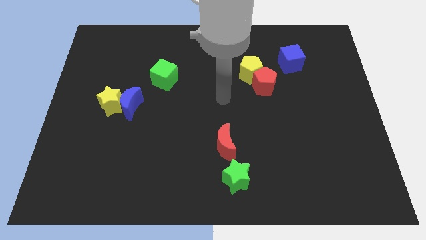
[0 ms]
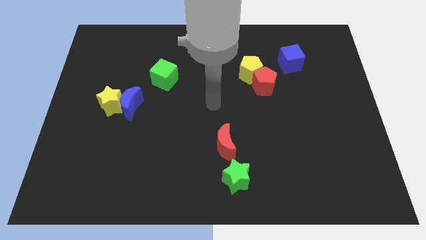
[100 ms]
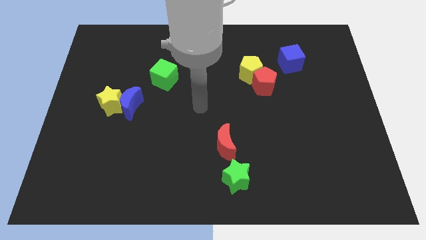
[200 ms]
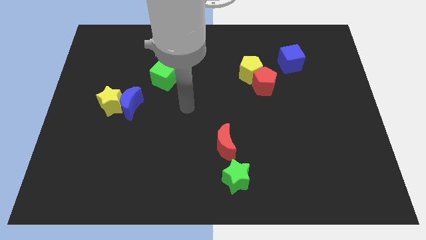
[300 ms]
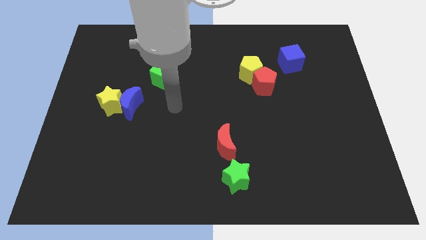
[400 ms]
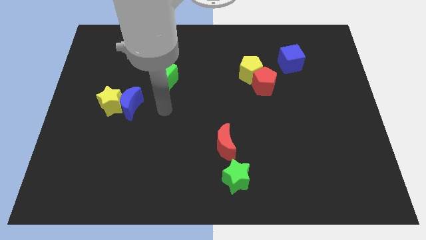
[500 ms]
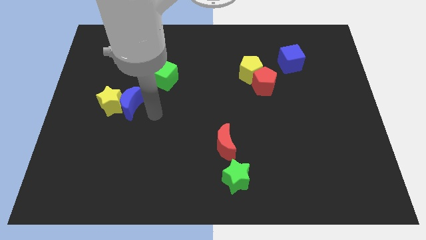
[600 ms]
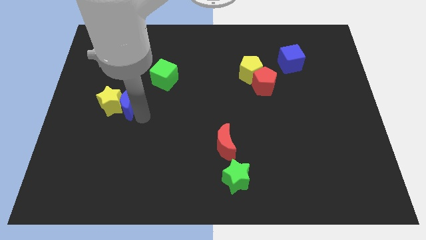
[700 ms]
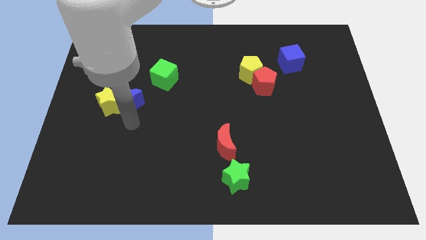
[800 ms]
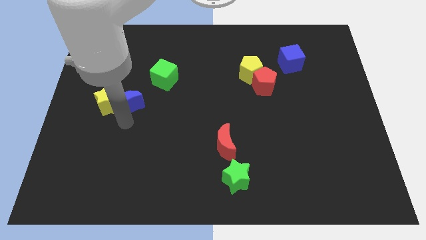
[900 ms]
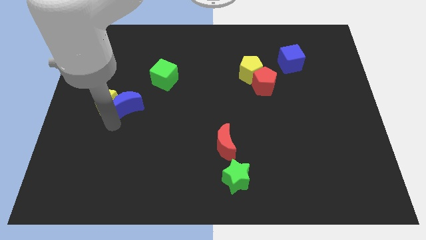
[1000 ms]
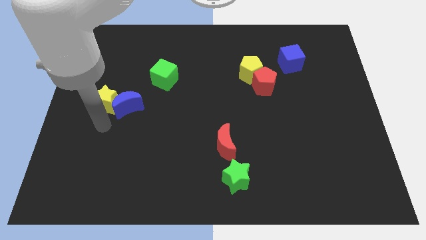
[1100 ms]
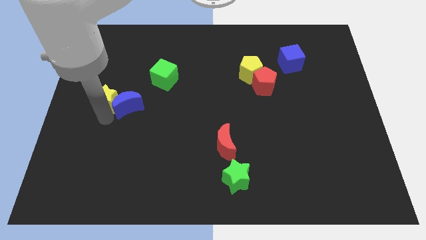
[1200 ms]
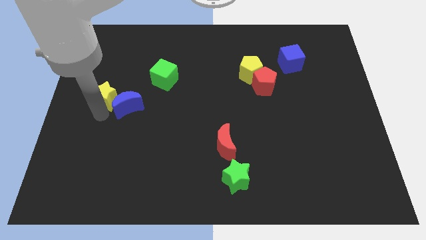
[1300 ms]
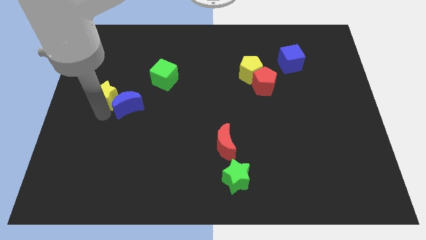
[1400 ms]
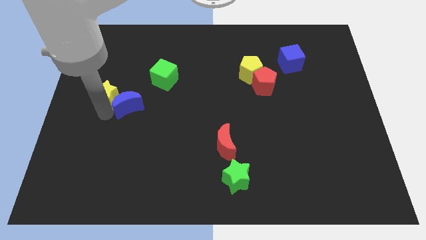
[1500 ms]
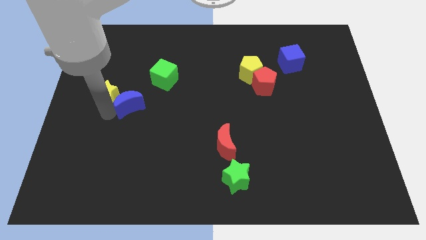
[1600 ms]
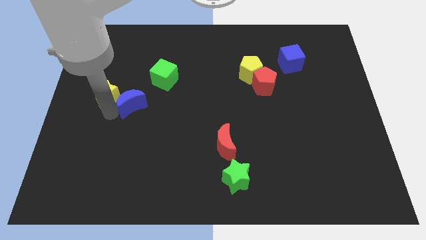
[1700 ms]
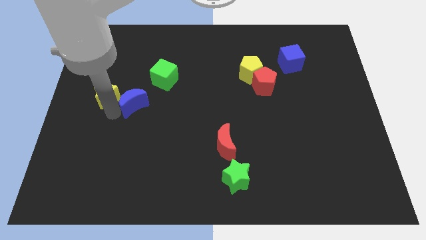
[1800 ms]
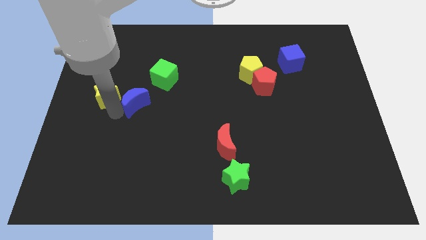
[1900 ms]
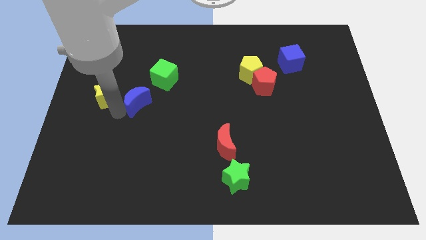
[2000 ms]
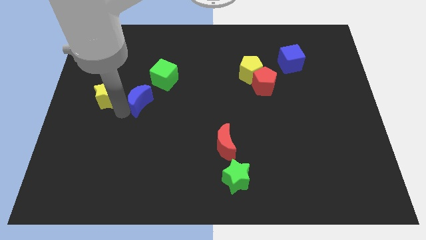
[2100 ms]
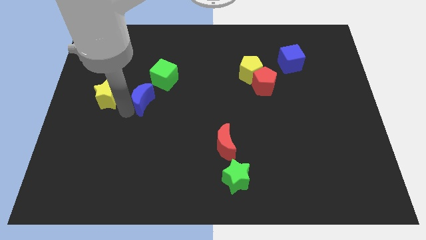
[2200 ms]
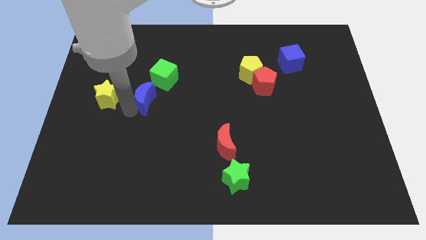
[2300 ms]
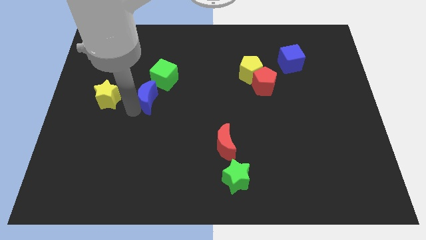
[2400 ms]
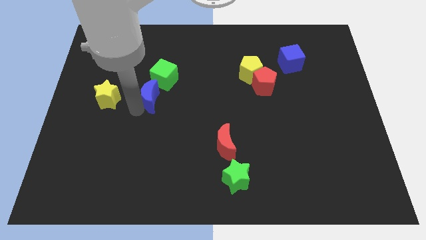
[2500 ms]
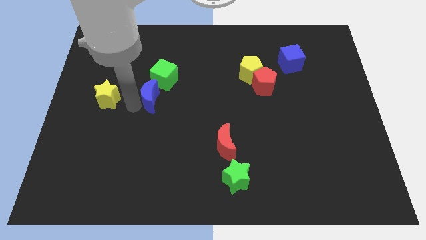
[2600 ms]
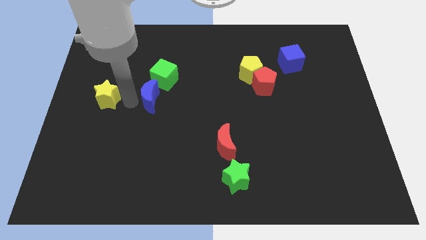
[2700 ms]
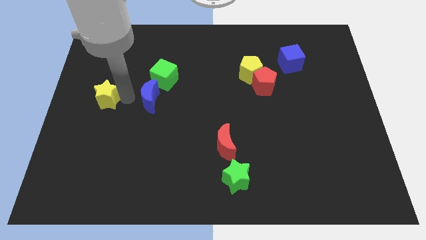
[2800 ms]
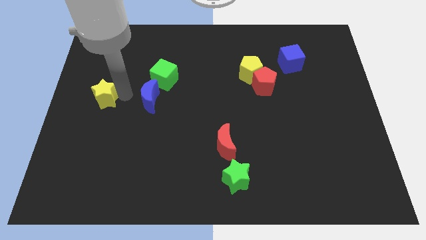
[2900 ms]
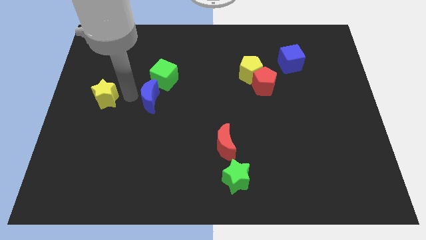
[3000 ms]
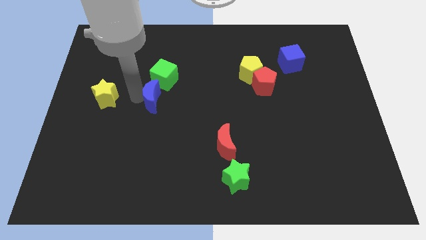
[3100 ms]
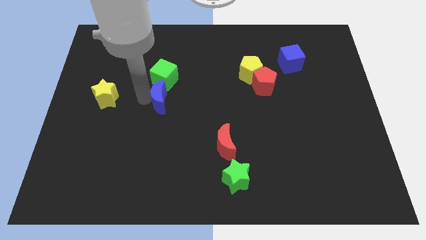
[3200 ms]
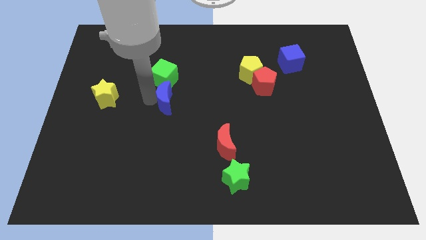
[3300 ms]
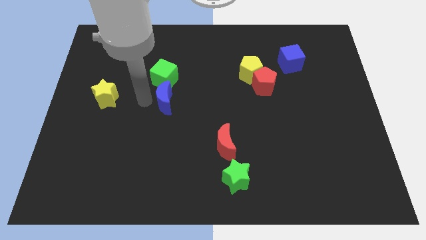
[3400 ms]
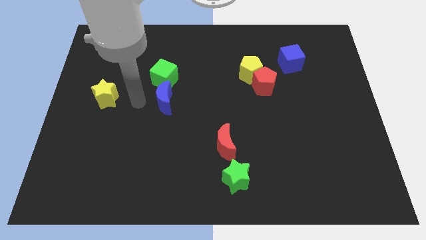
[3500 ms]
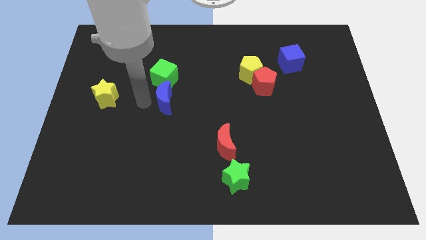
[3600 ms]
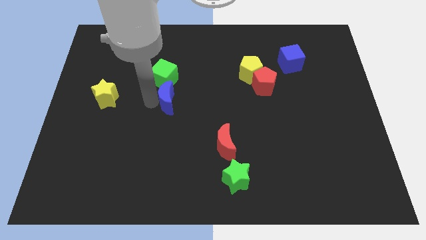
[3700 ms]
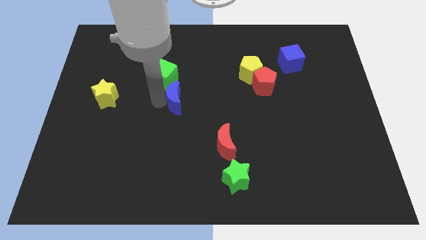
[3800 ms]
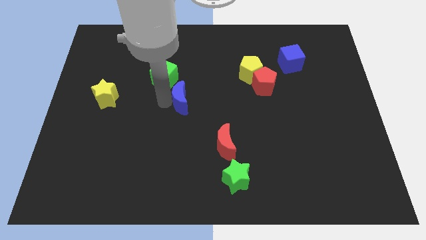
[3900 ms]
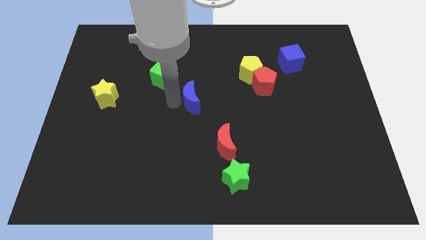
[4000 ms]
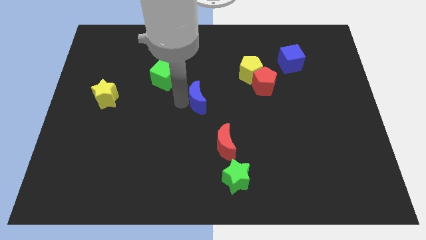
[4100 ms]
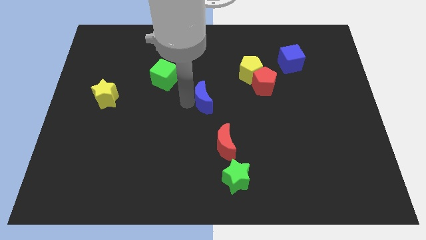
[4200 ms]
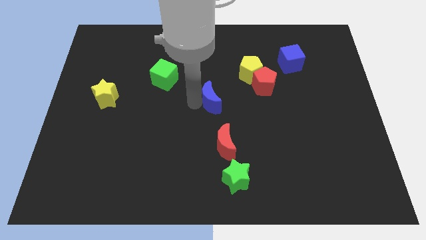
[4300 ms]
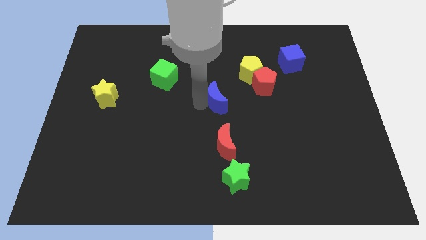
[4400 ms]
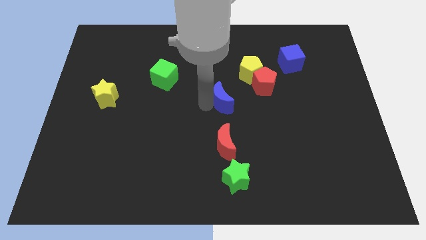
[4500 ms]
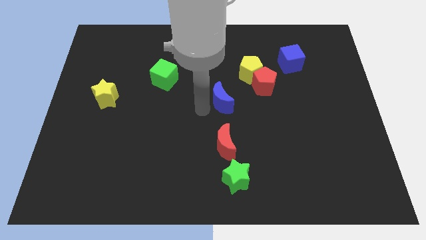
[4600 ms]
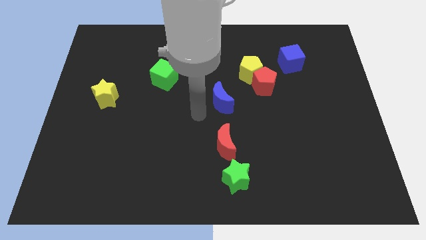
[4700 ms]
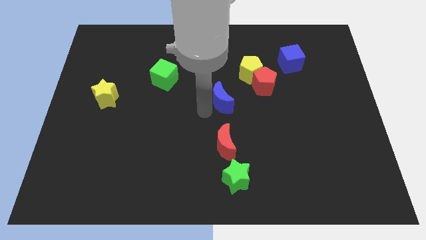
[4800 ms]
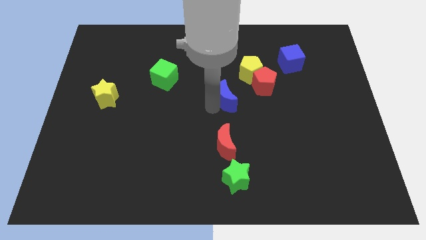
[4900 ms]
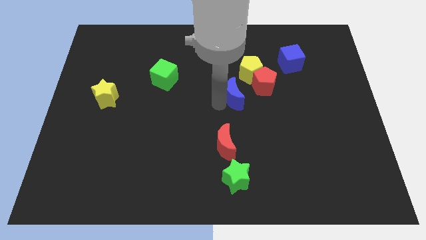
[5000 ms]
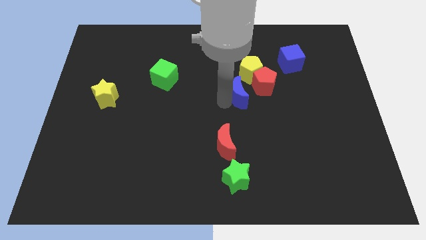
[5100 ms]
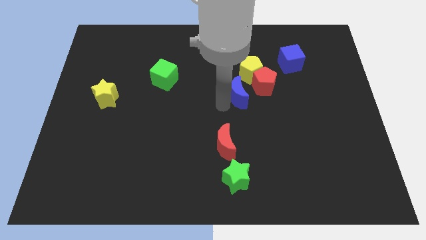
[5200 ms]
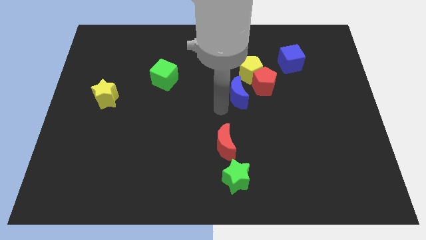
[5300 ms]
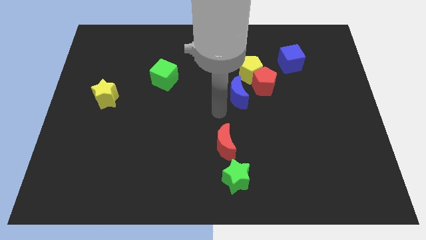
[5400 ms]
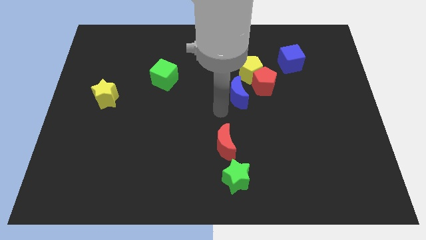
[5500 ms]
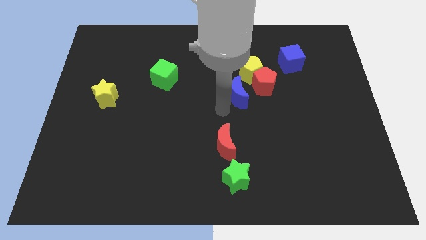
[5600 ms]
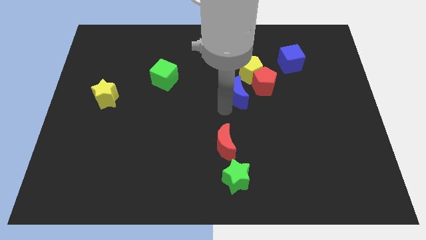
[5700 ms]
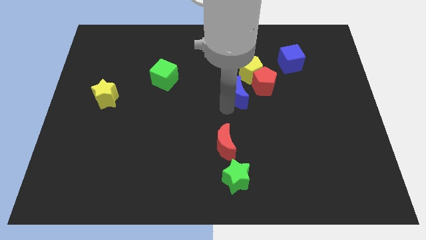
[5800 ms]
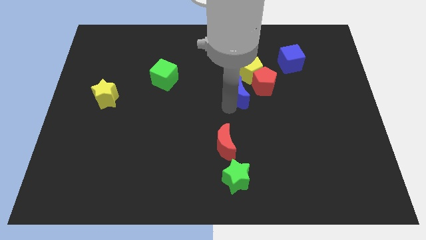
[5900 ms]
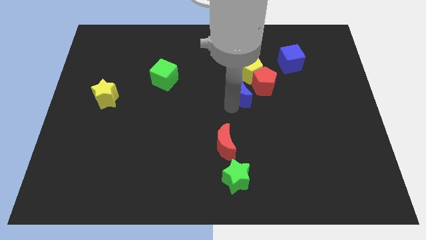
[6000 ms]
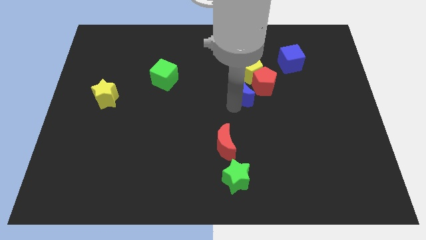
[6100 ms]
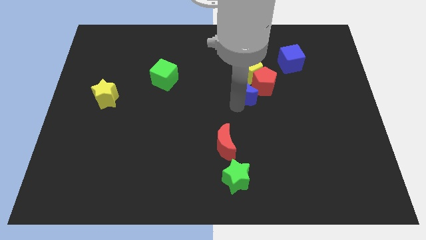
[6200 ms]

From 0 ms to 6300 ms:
put the blue moon to the red pentagon

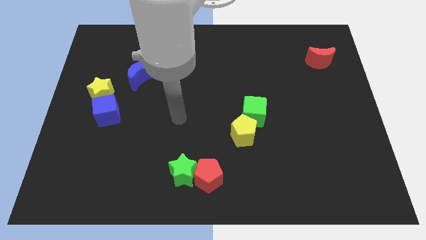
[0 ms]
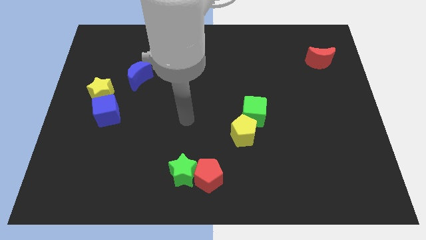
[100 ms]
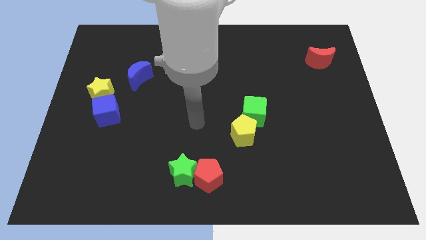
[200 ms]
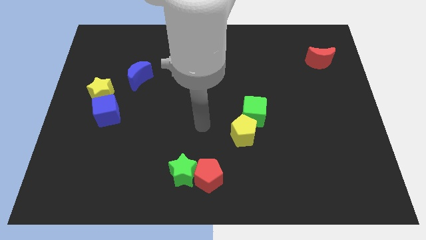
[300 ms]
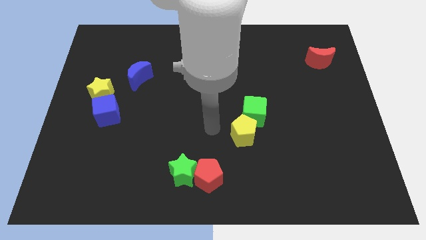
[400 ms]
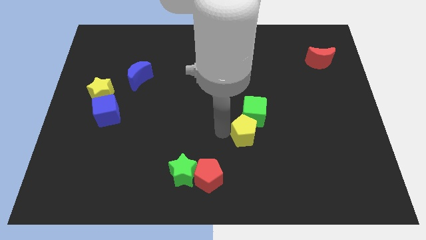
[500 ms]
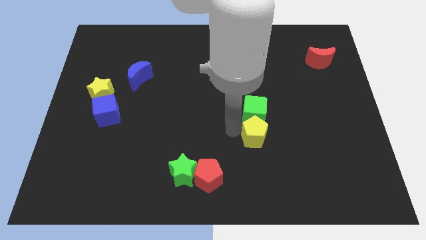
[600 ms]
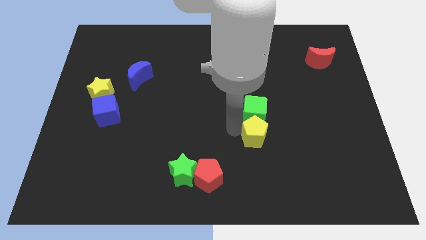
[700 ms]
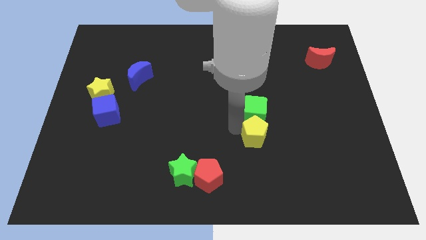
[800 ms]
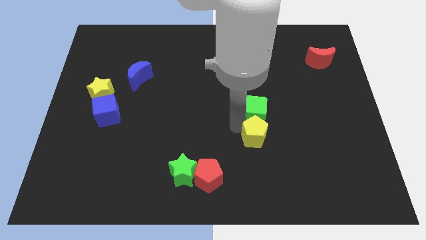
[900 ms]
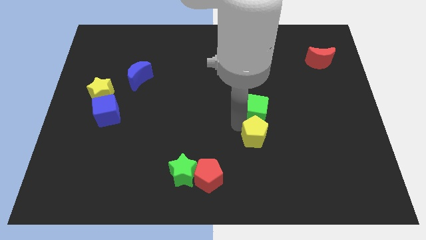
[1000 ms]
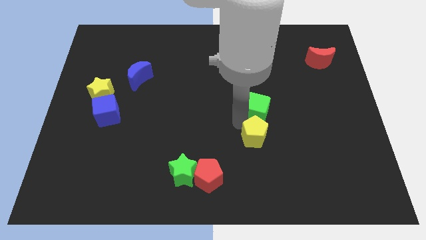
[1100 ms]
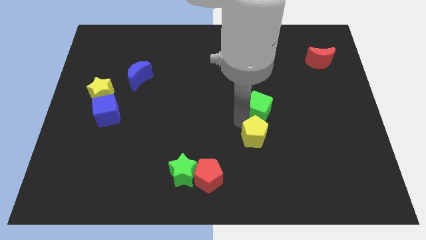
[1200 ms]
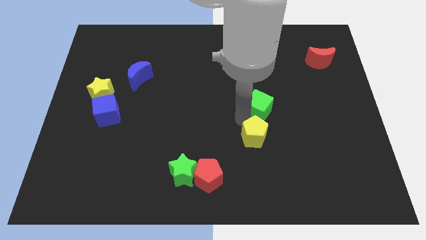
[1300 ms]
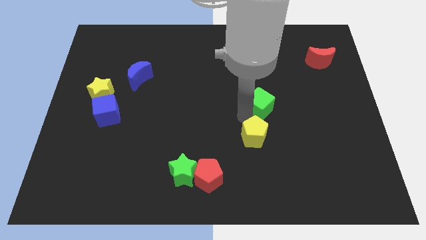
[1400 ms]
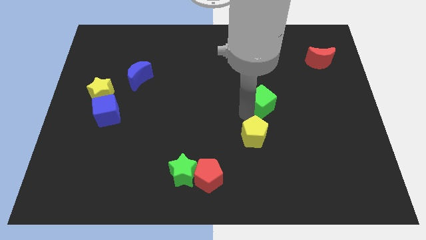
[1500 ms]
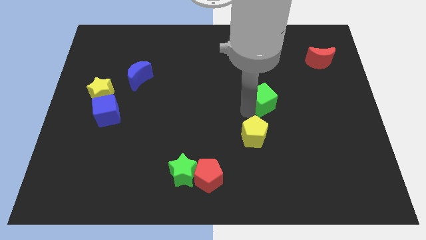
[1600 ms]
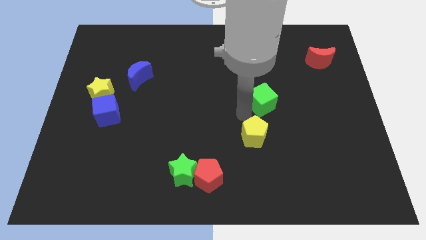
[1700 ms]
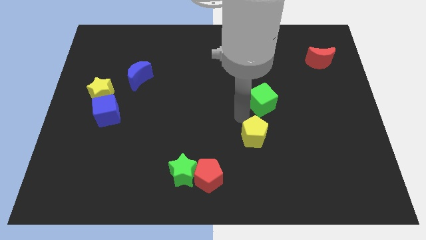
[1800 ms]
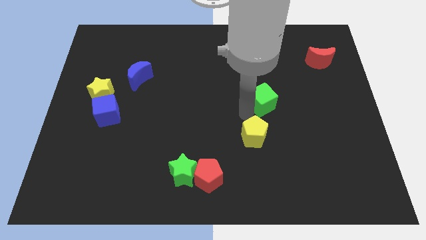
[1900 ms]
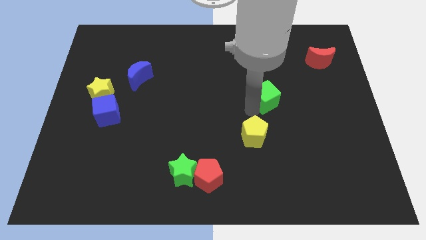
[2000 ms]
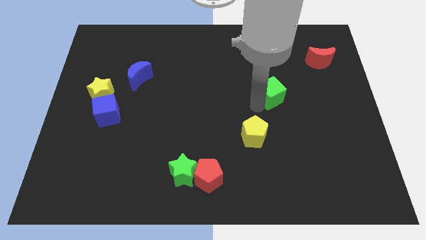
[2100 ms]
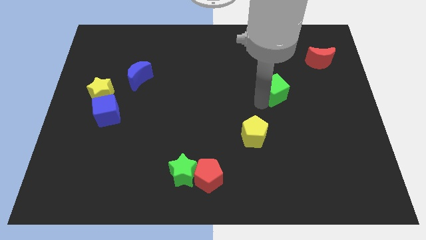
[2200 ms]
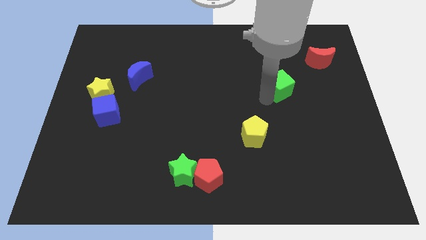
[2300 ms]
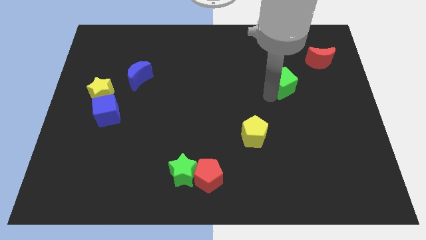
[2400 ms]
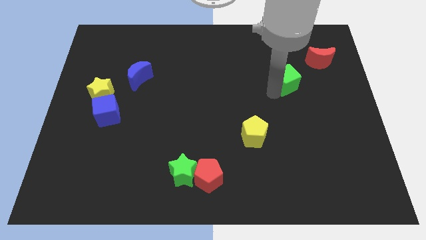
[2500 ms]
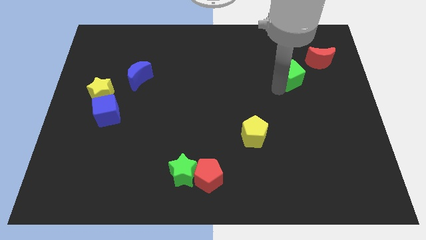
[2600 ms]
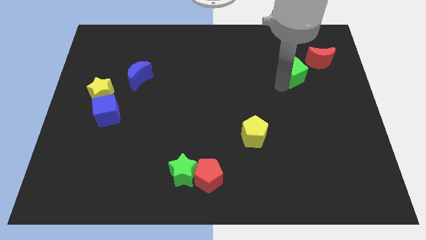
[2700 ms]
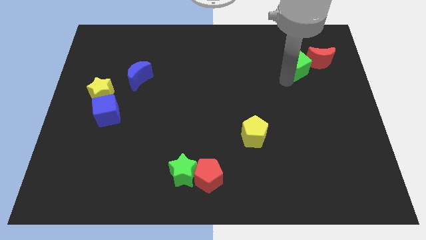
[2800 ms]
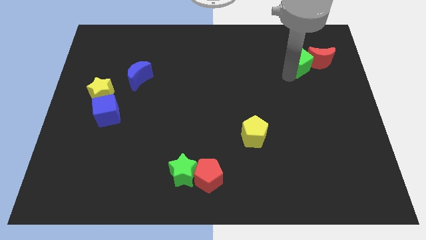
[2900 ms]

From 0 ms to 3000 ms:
slide the green cube to the red moon
